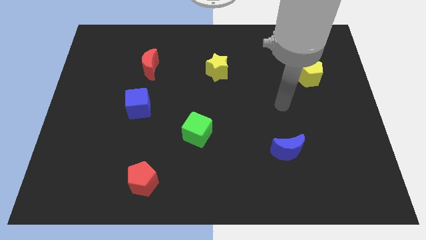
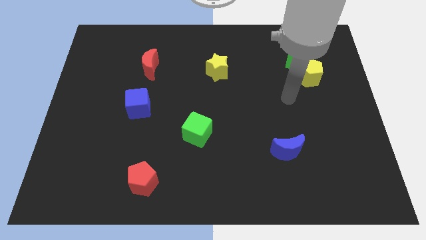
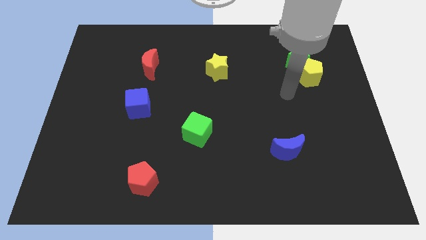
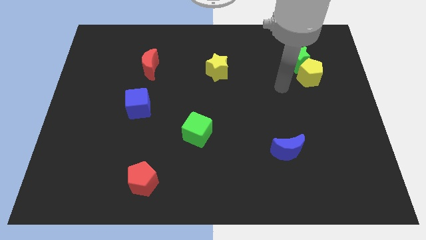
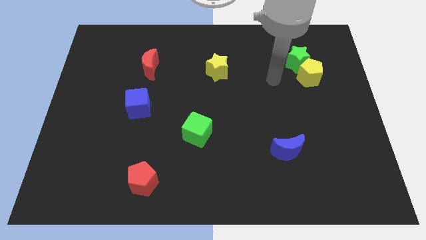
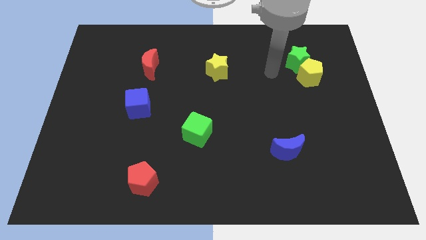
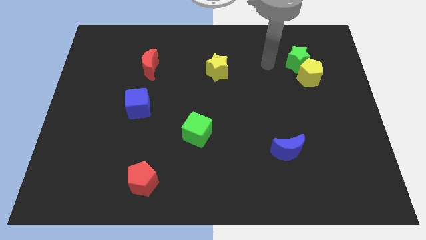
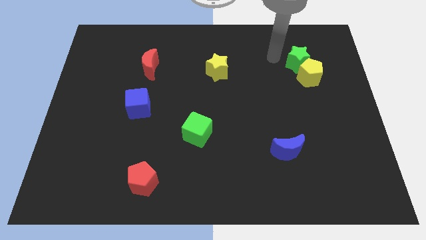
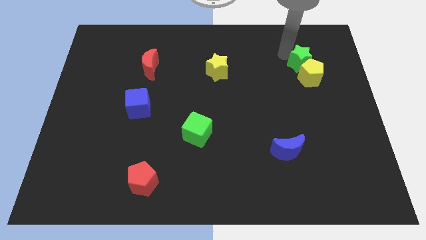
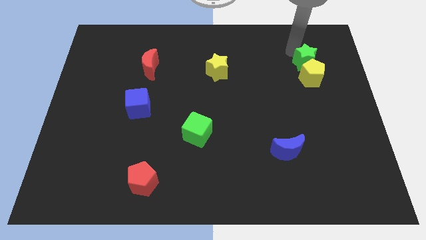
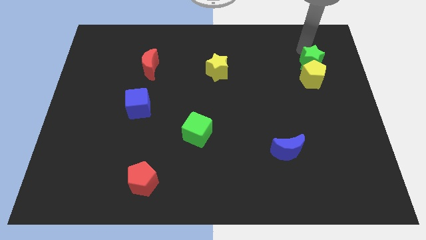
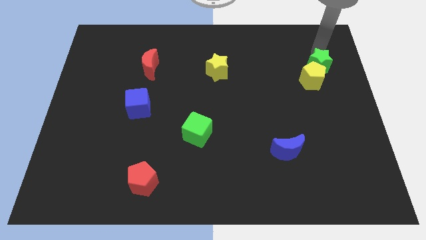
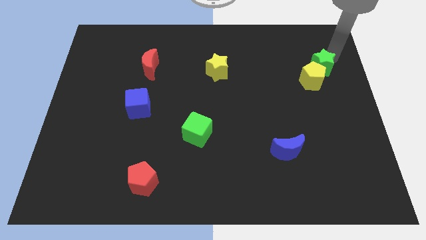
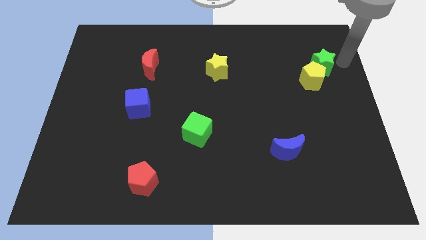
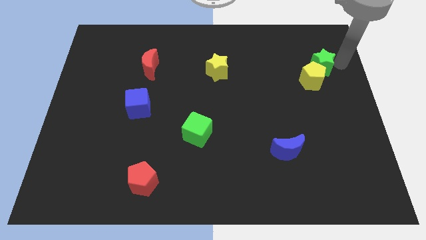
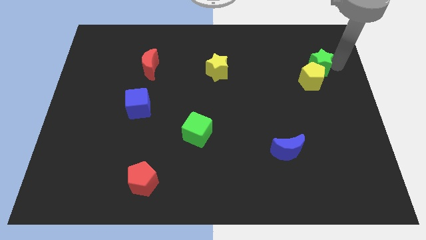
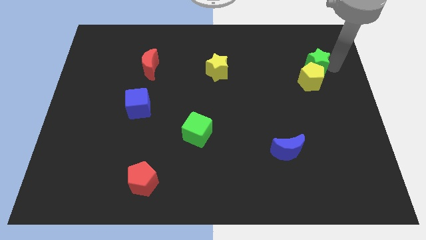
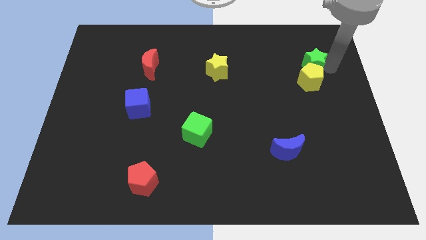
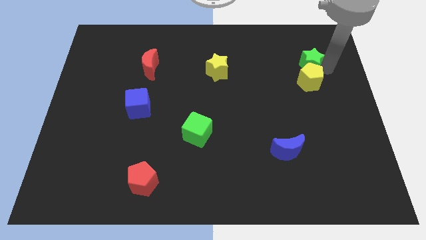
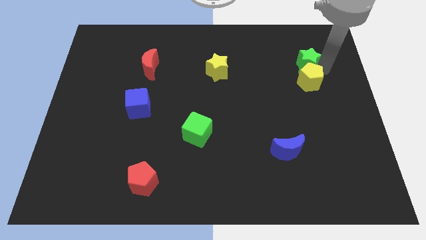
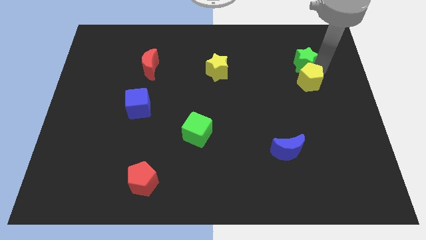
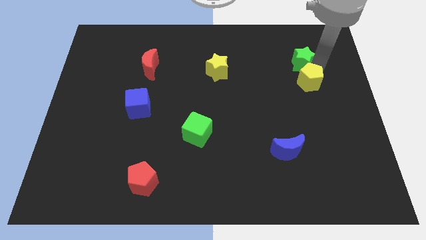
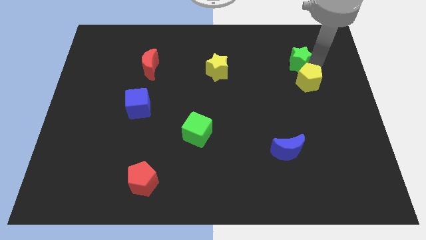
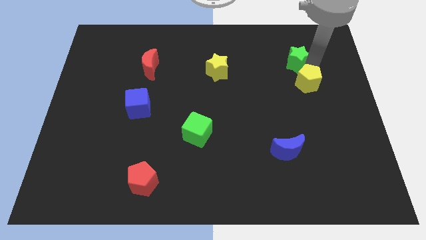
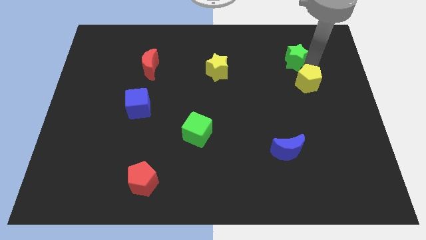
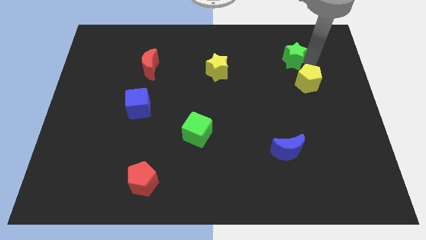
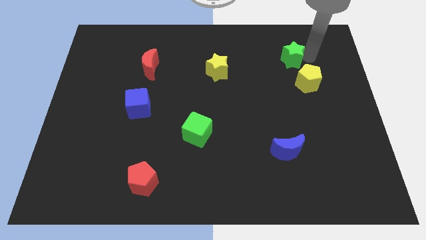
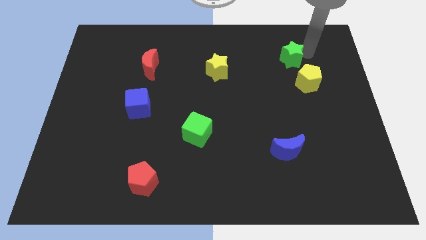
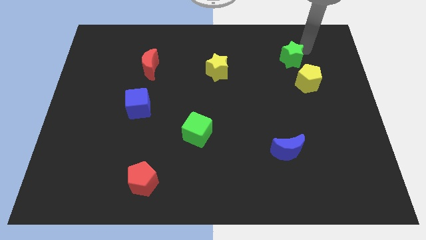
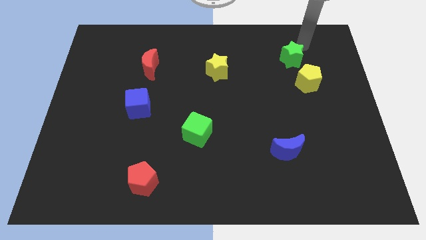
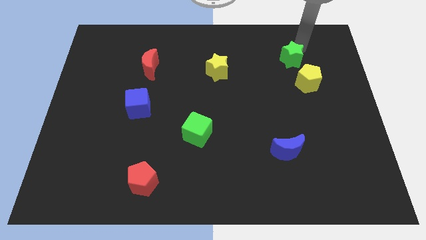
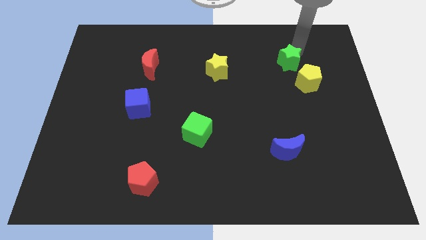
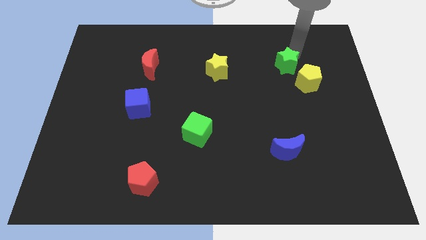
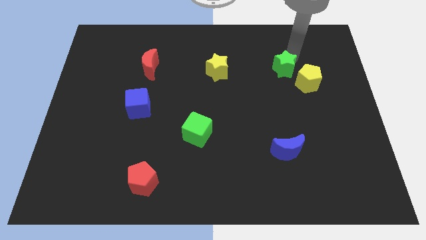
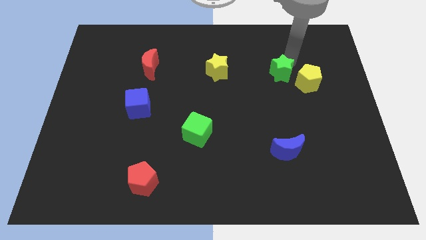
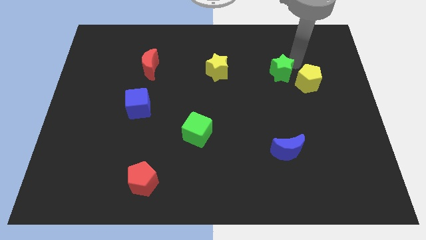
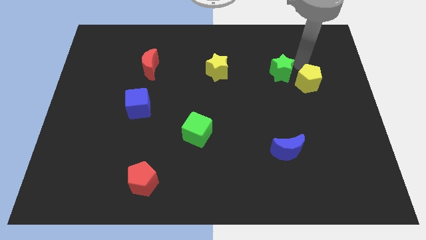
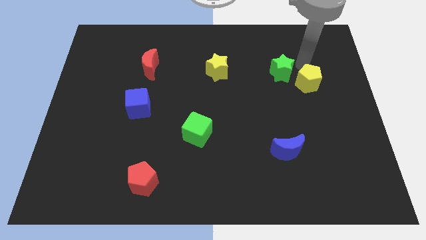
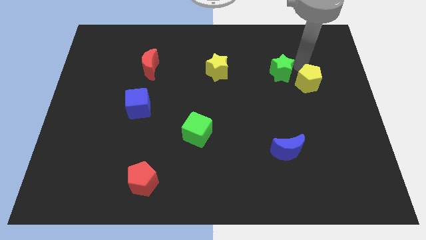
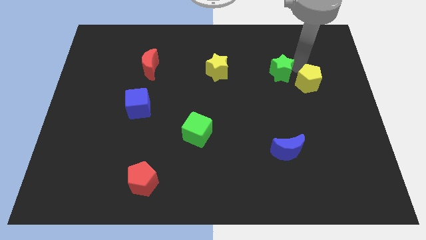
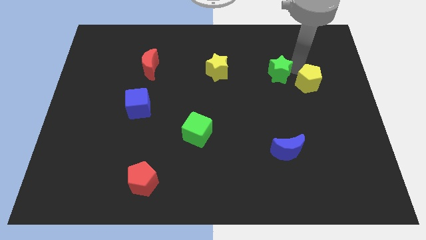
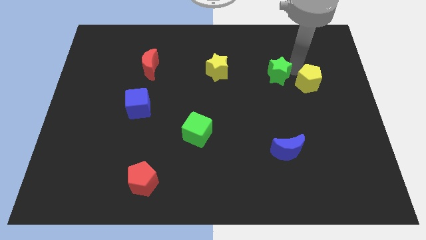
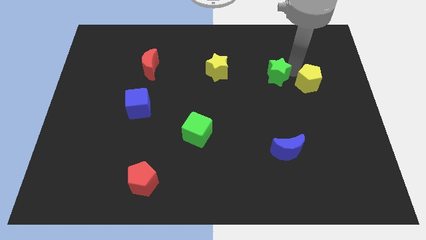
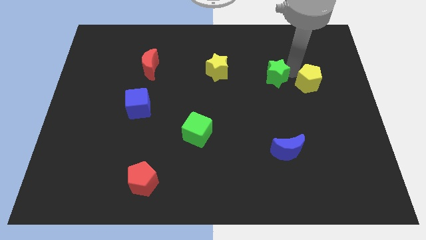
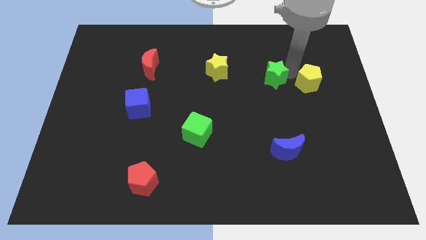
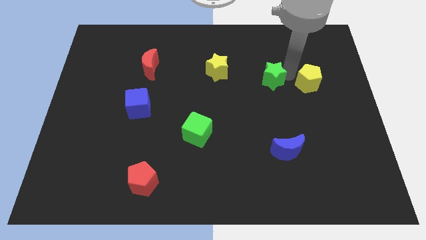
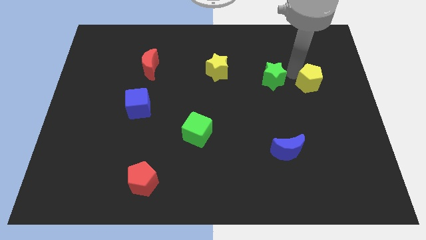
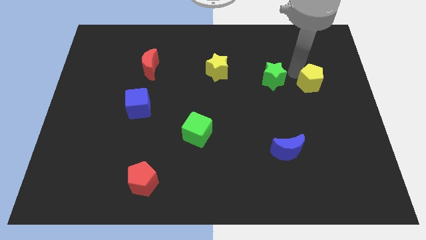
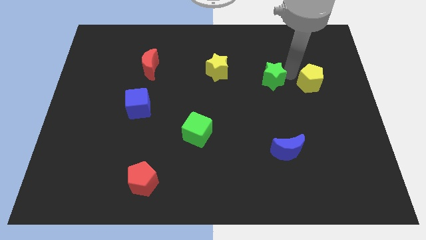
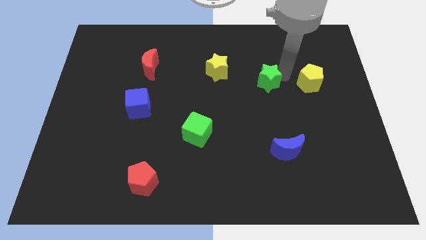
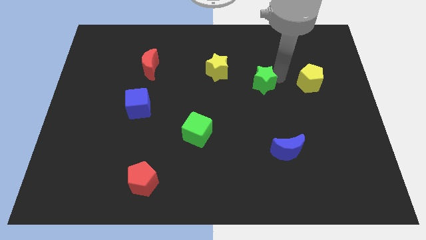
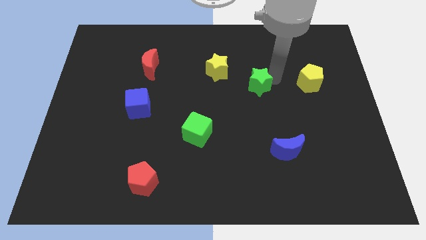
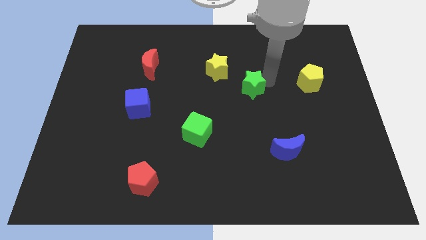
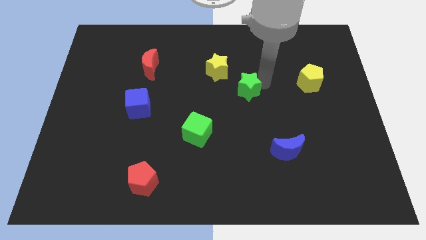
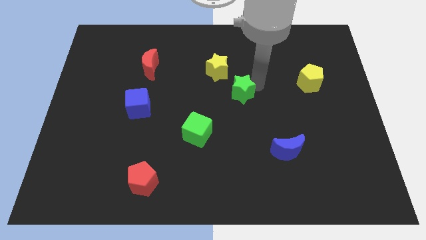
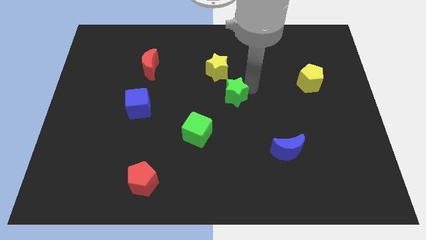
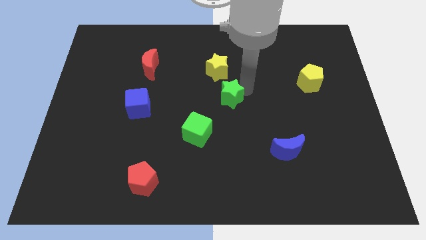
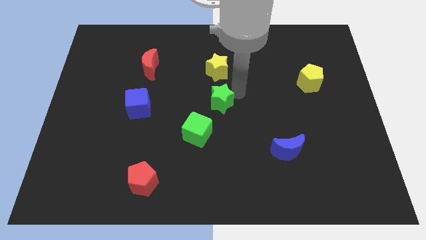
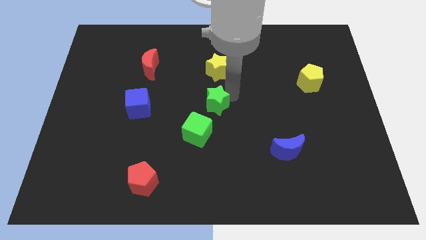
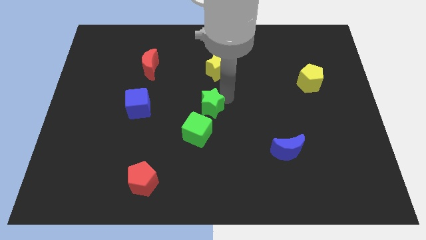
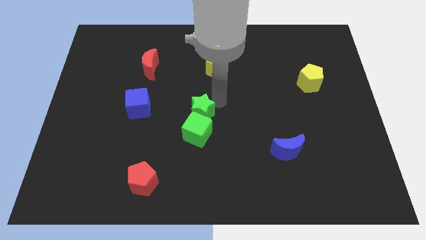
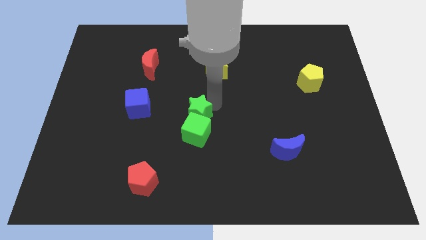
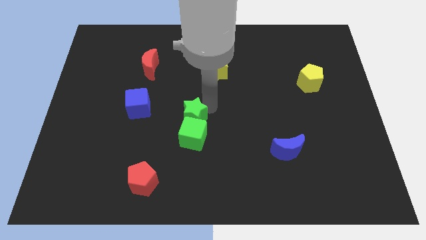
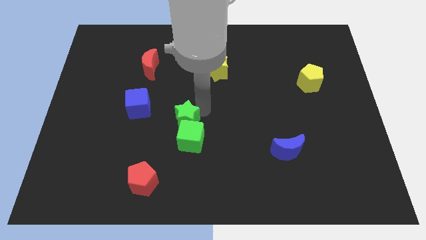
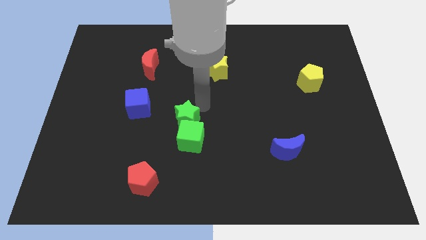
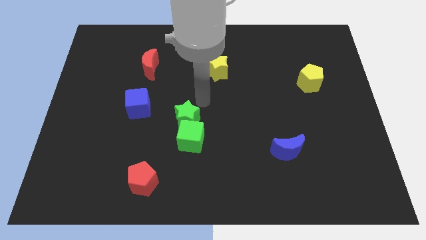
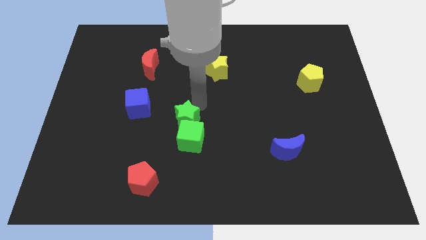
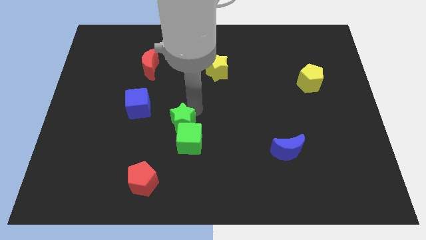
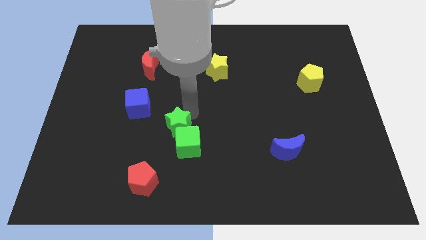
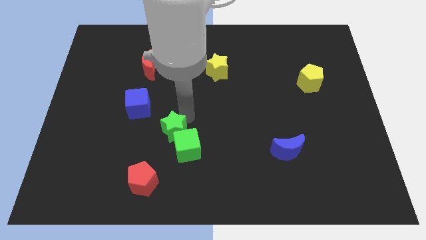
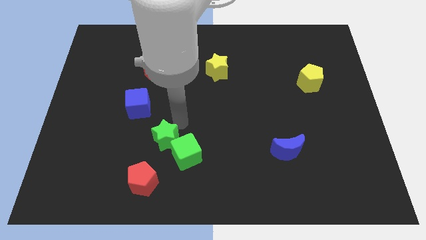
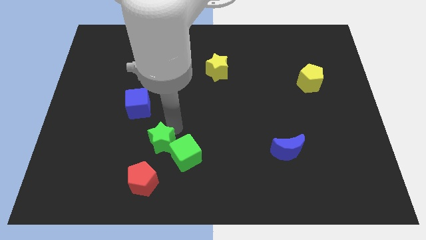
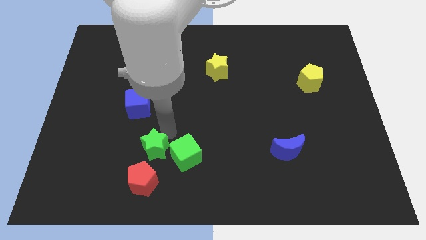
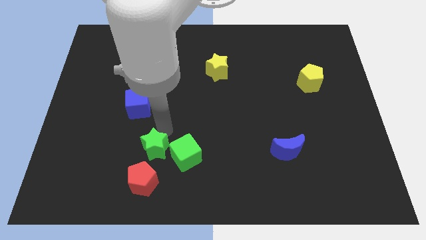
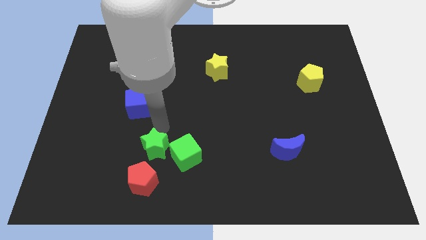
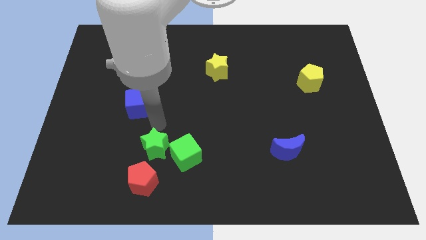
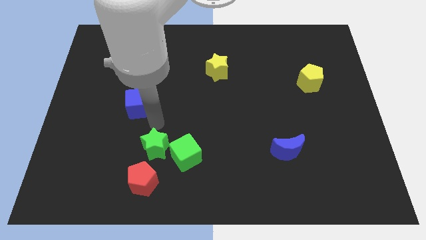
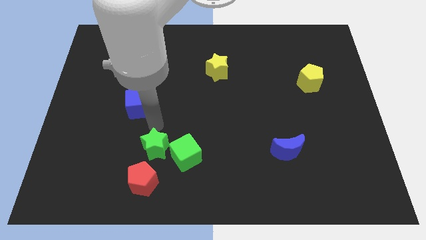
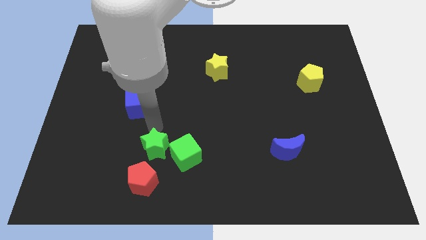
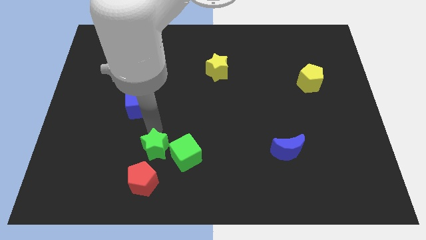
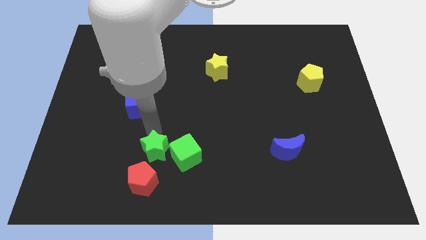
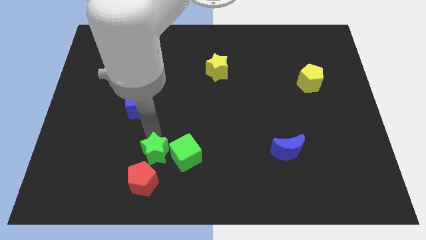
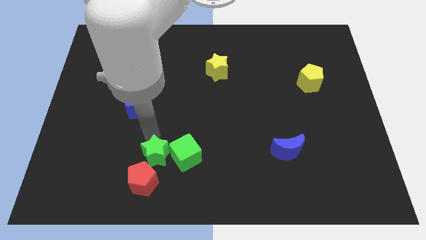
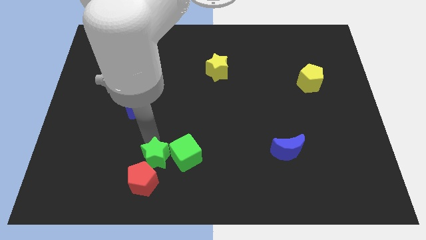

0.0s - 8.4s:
put the green star next to the red pentagon

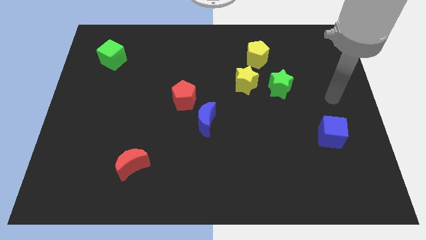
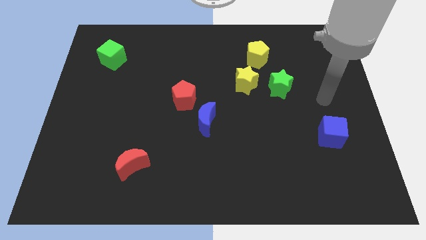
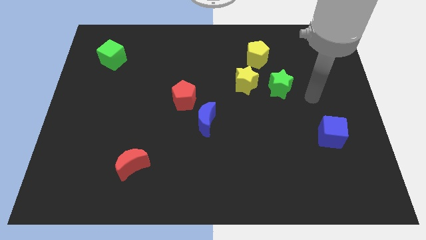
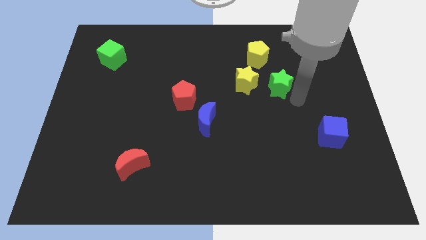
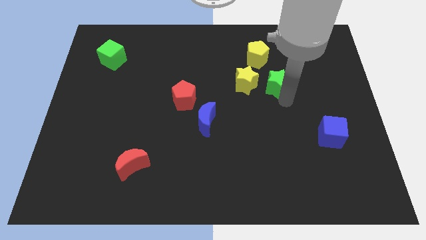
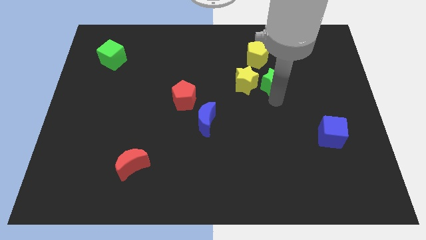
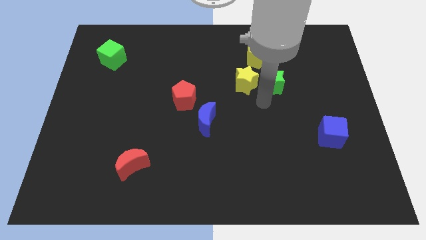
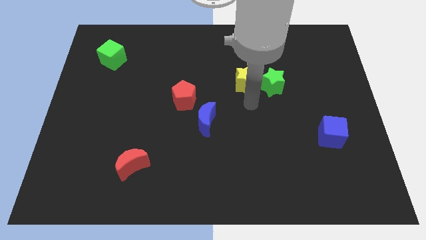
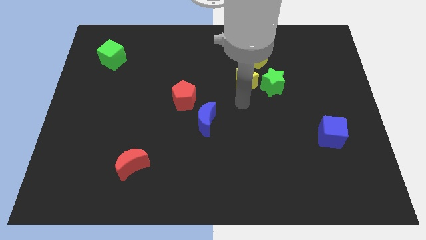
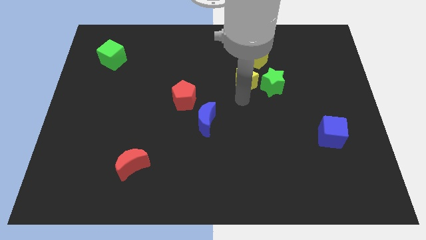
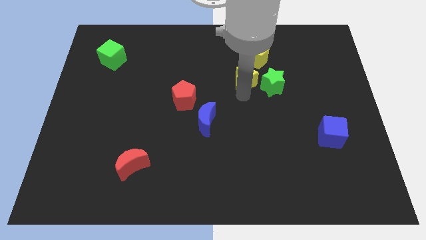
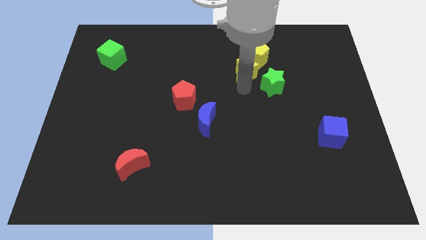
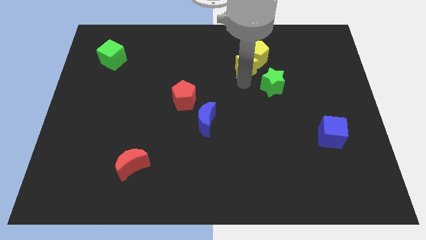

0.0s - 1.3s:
put the yellow star close to the yellow pentagon
